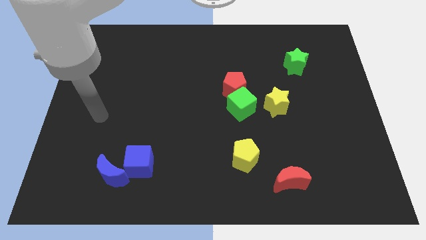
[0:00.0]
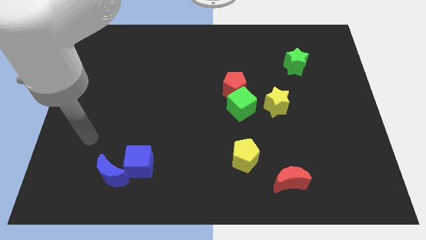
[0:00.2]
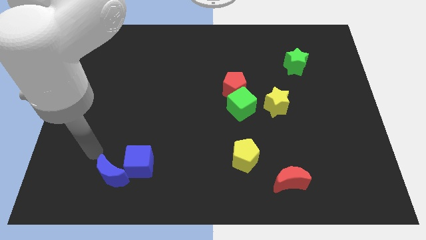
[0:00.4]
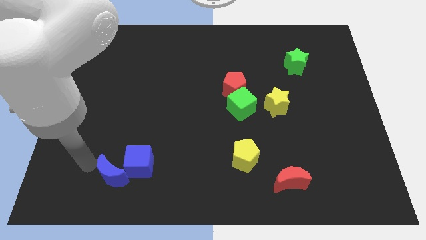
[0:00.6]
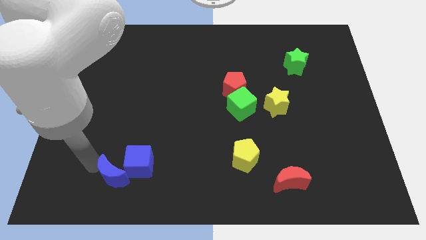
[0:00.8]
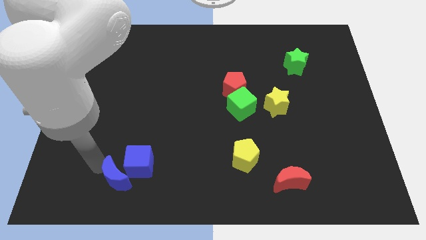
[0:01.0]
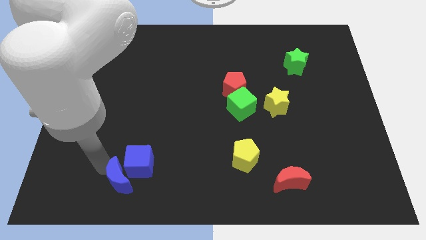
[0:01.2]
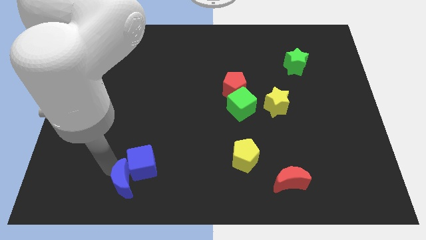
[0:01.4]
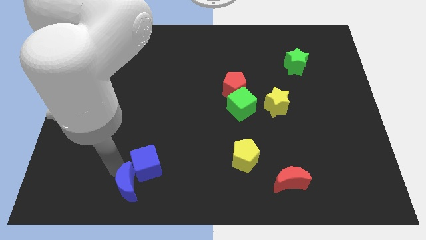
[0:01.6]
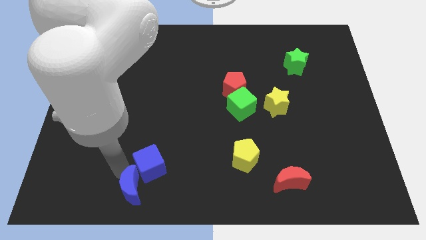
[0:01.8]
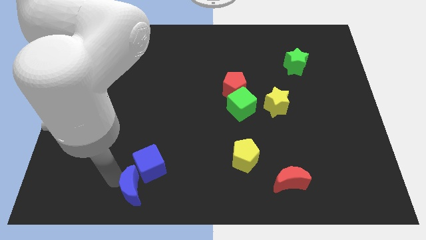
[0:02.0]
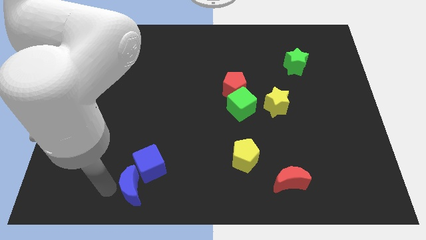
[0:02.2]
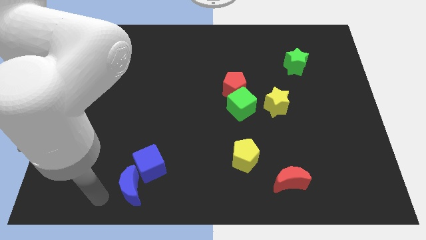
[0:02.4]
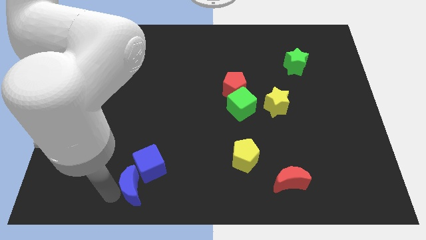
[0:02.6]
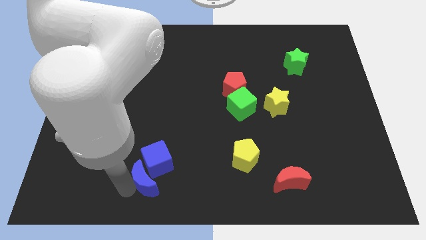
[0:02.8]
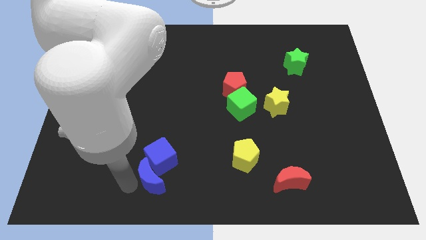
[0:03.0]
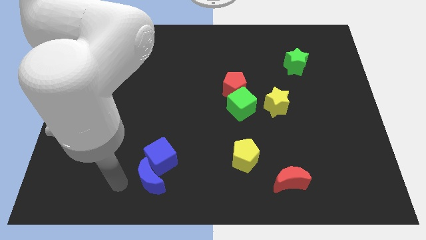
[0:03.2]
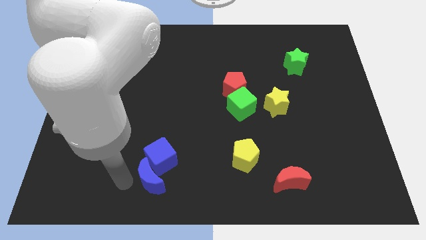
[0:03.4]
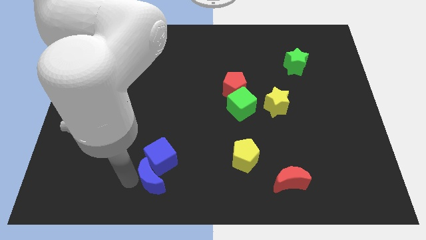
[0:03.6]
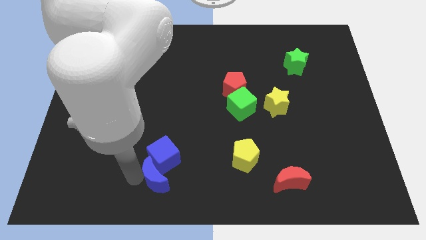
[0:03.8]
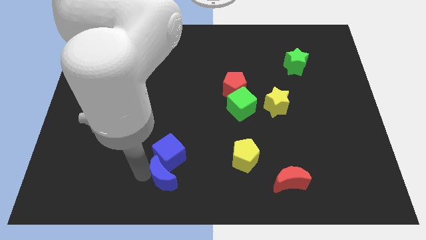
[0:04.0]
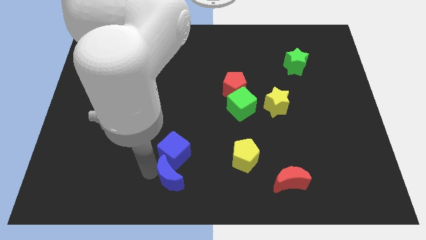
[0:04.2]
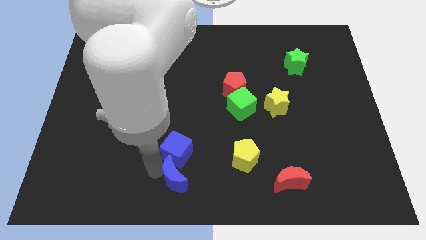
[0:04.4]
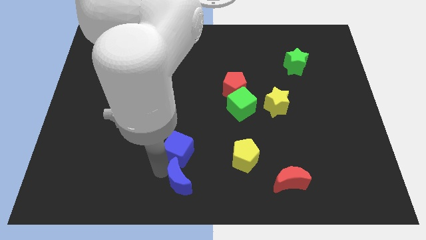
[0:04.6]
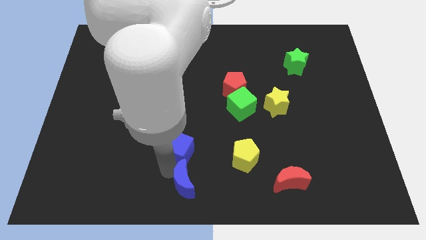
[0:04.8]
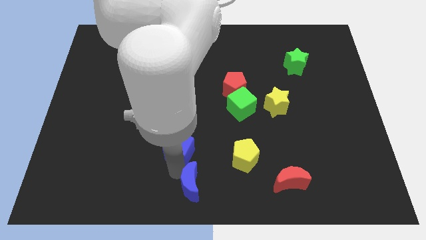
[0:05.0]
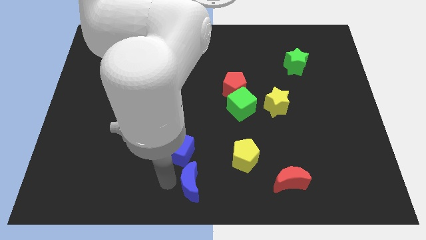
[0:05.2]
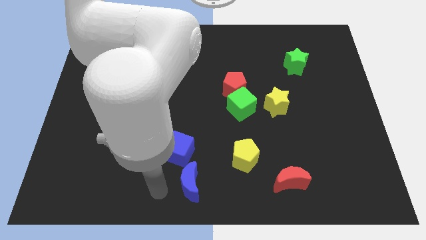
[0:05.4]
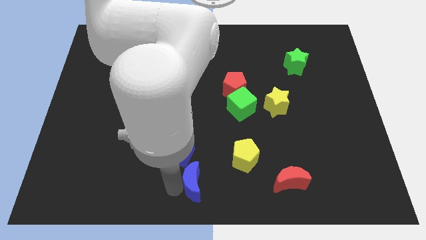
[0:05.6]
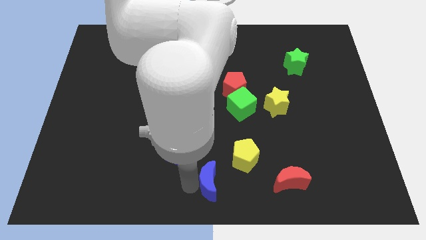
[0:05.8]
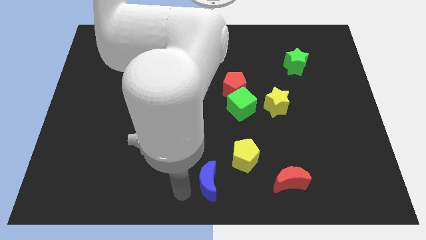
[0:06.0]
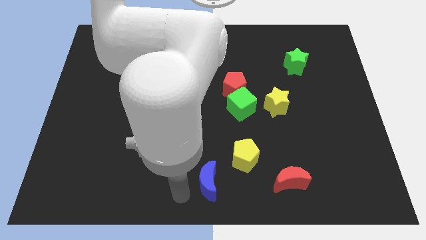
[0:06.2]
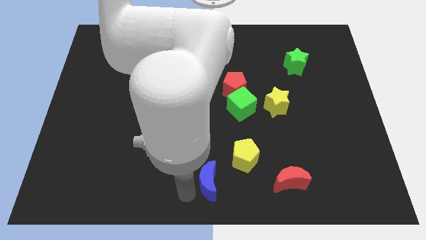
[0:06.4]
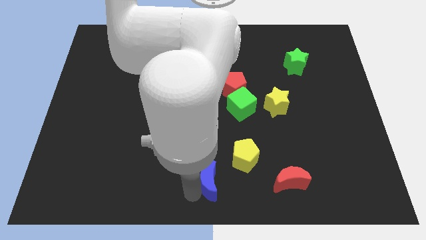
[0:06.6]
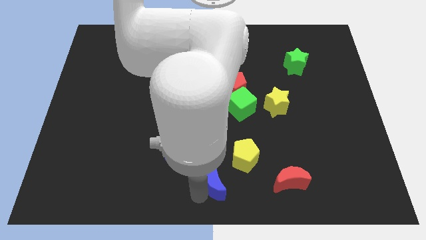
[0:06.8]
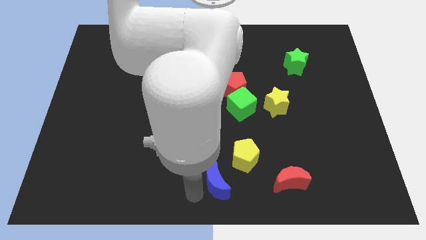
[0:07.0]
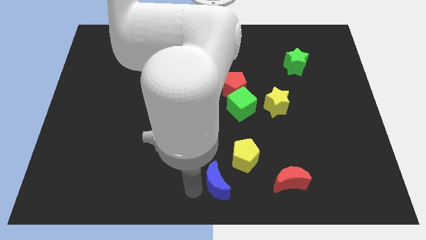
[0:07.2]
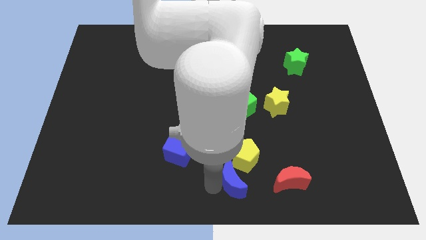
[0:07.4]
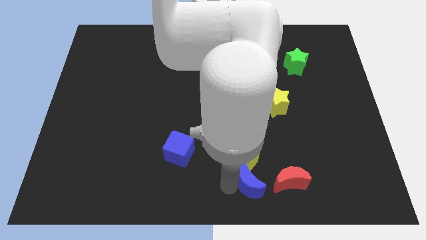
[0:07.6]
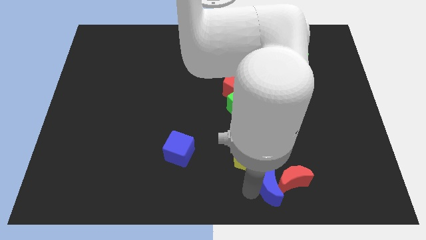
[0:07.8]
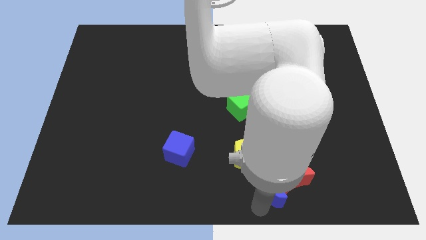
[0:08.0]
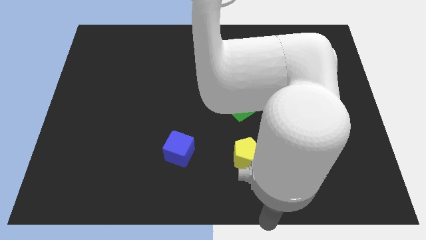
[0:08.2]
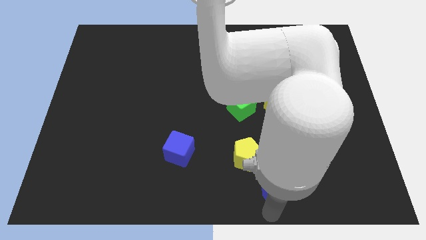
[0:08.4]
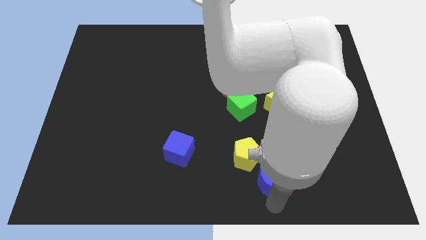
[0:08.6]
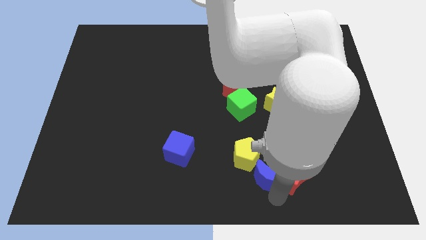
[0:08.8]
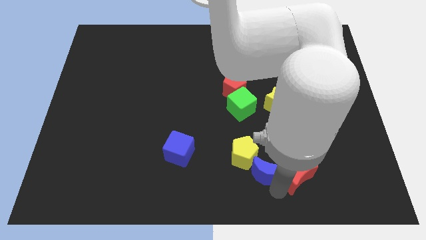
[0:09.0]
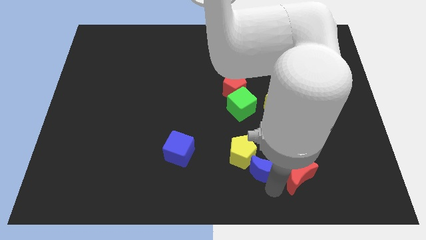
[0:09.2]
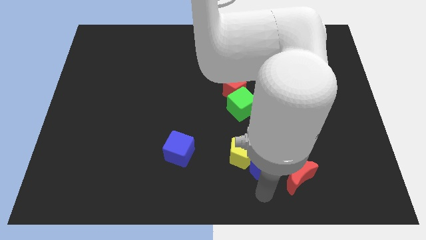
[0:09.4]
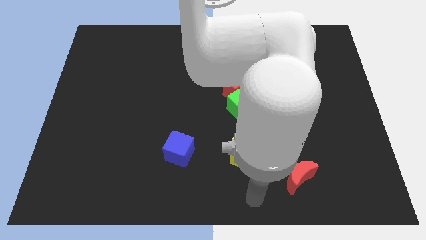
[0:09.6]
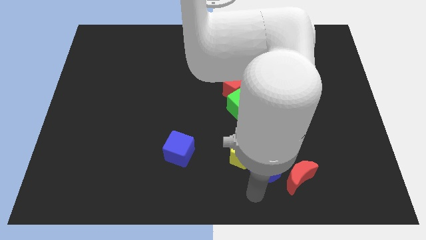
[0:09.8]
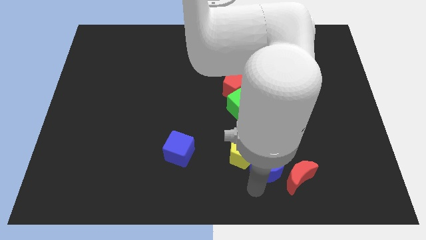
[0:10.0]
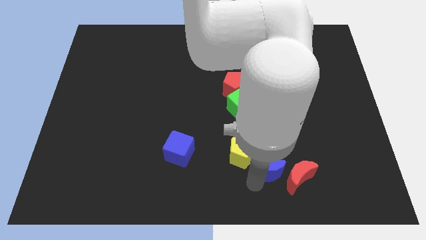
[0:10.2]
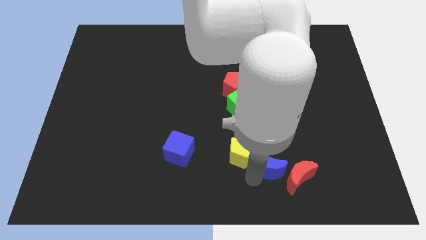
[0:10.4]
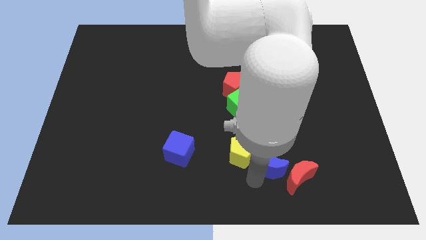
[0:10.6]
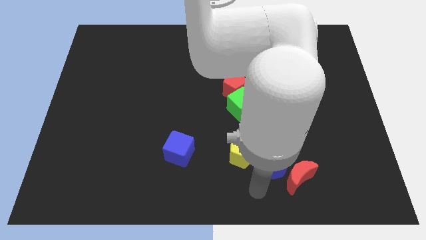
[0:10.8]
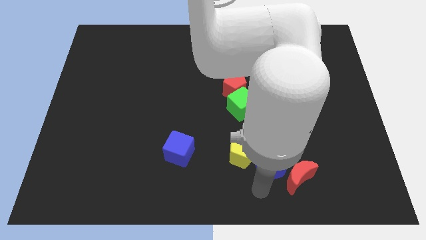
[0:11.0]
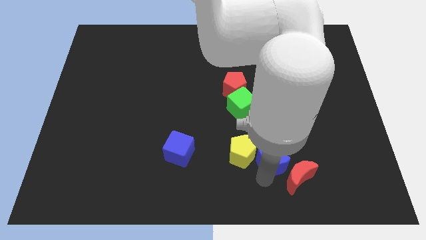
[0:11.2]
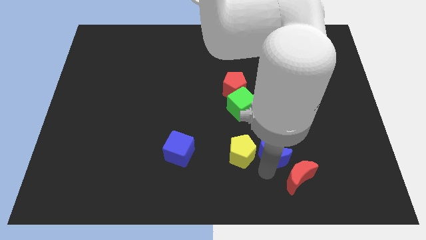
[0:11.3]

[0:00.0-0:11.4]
slide the blue moon to the bottom of the yellow star

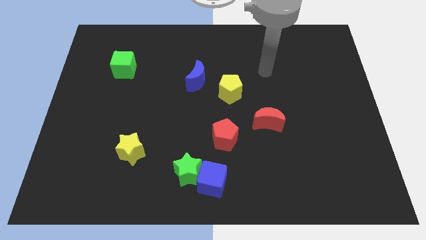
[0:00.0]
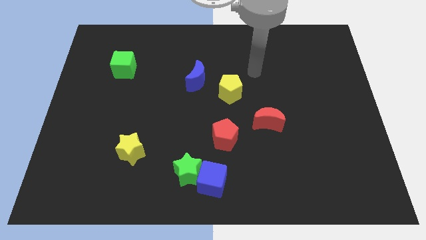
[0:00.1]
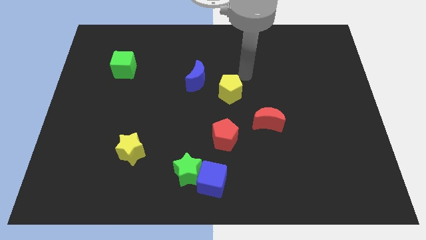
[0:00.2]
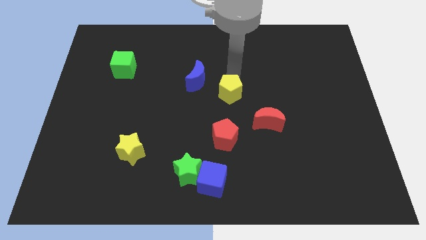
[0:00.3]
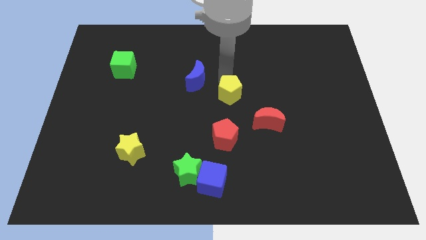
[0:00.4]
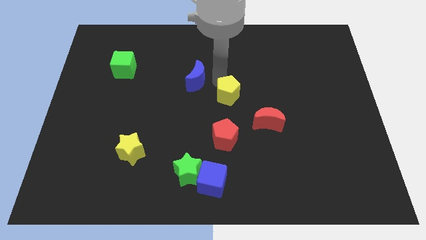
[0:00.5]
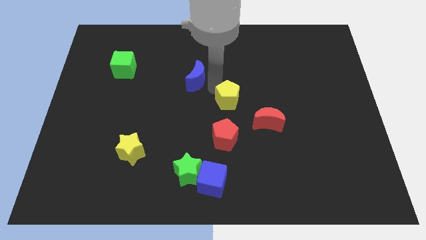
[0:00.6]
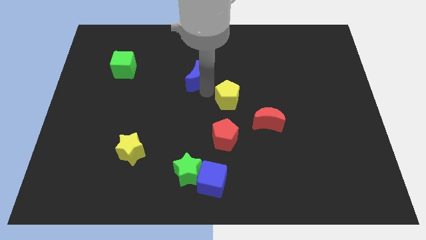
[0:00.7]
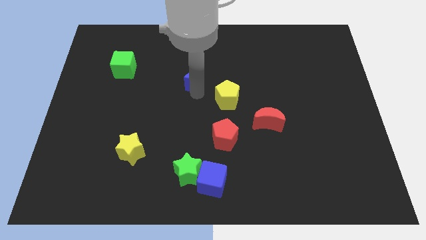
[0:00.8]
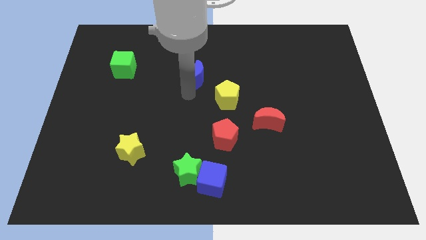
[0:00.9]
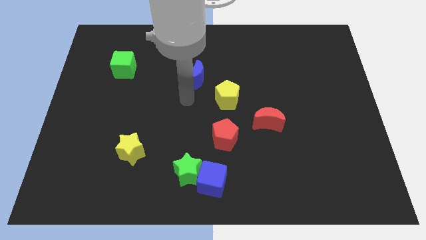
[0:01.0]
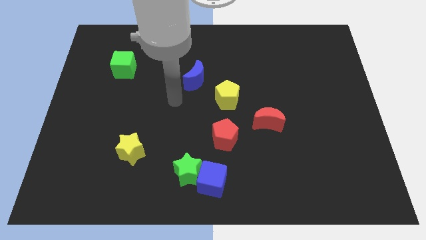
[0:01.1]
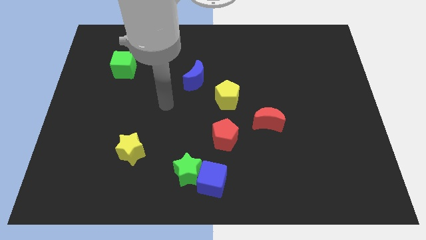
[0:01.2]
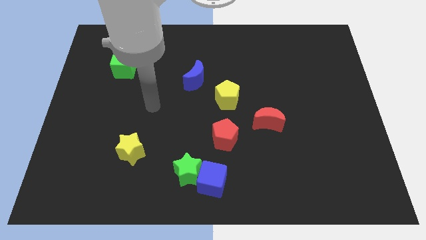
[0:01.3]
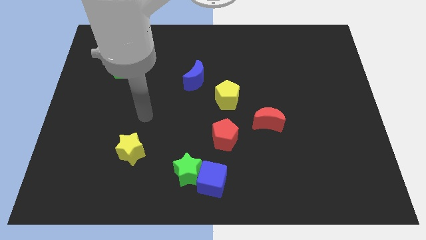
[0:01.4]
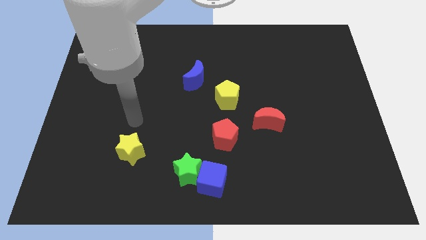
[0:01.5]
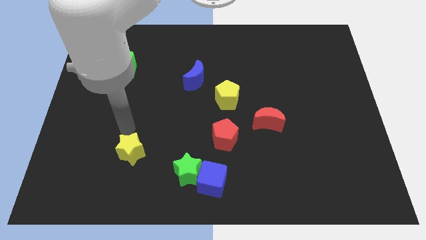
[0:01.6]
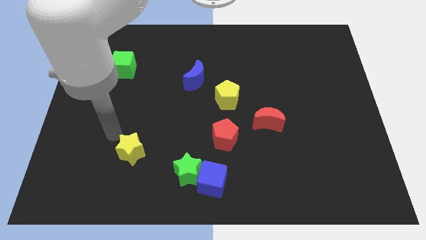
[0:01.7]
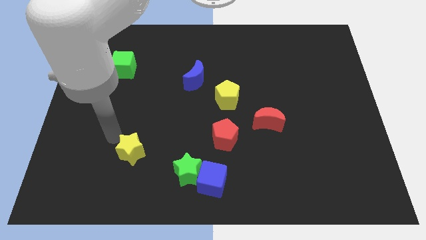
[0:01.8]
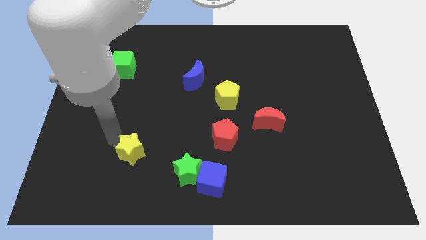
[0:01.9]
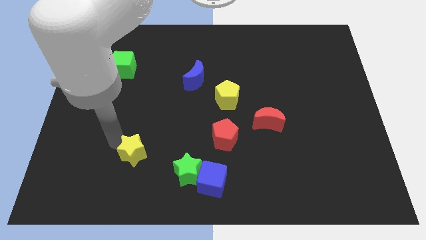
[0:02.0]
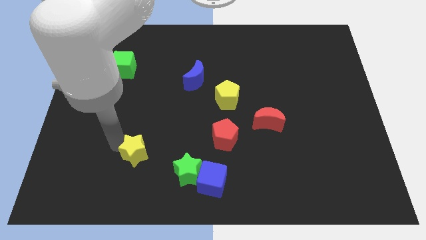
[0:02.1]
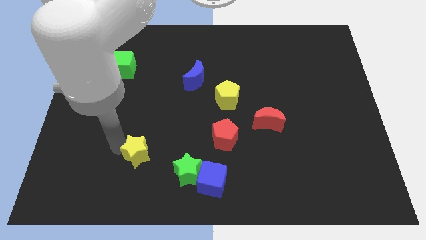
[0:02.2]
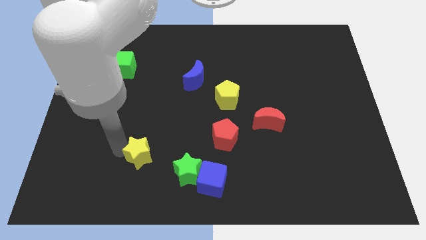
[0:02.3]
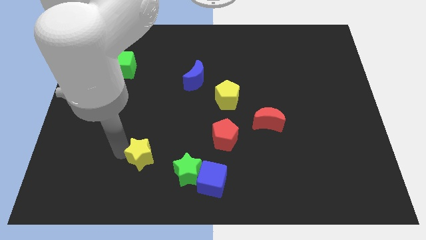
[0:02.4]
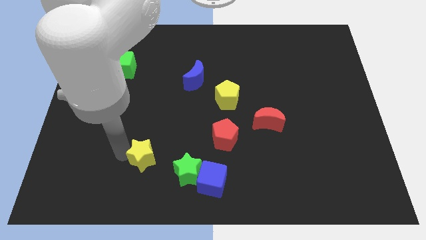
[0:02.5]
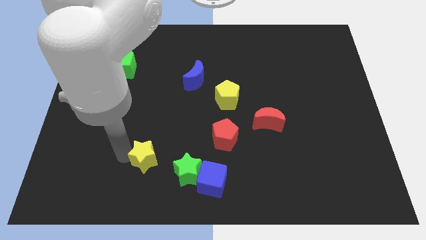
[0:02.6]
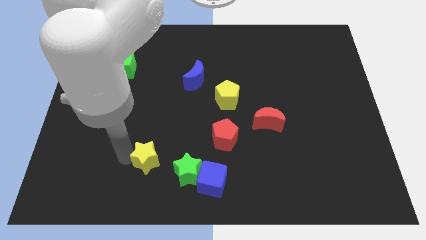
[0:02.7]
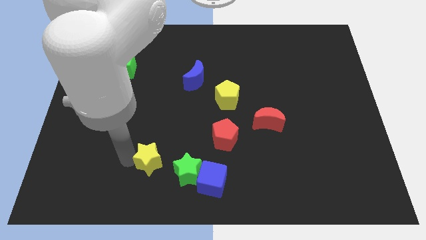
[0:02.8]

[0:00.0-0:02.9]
slide the yellow star to the left of the blue cube
